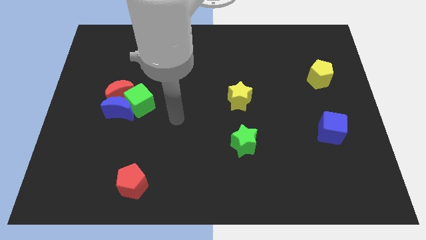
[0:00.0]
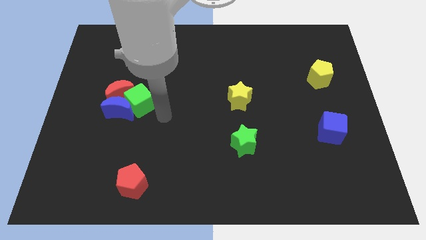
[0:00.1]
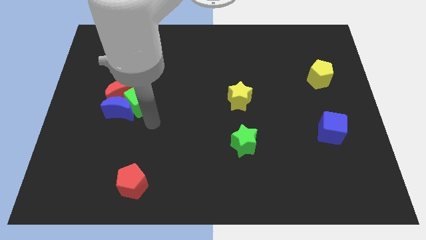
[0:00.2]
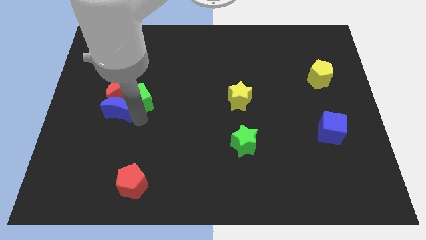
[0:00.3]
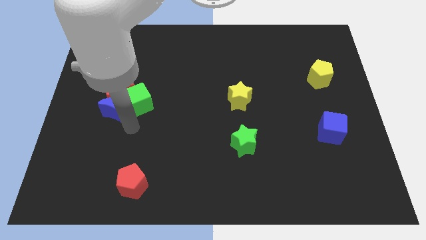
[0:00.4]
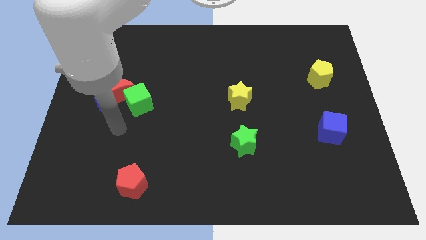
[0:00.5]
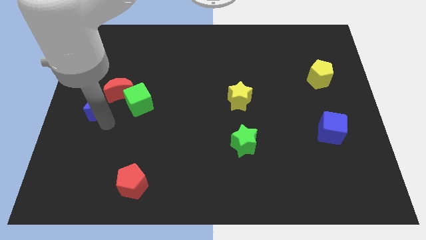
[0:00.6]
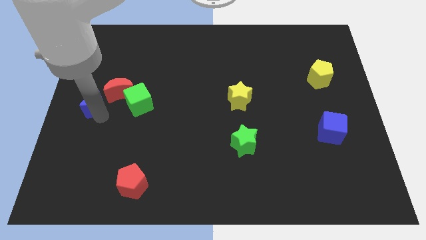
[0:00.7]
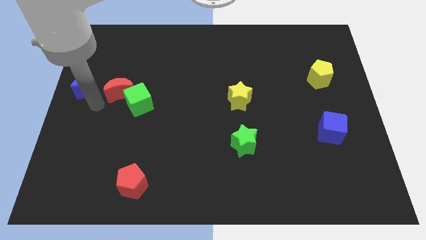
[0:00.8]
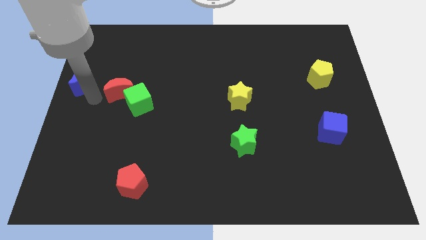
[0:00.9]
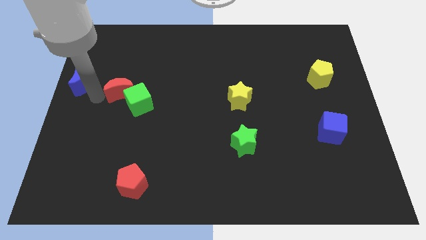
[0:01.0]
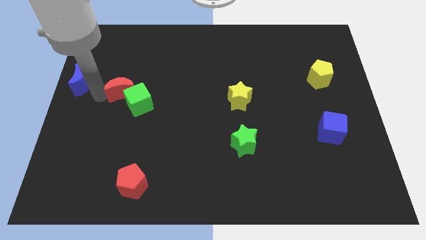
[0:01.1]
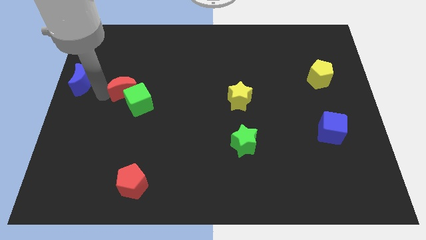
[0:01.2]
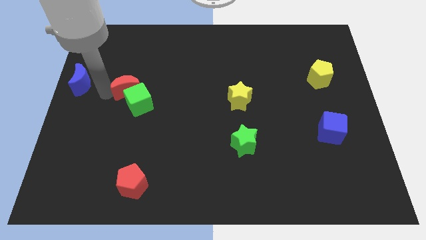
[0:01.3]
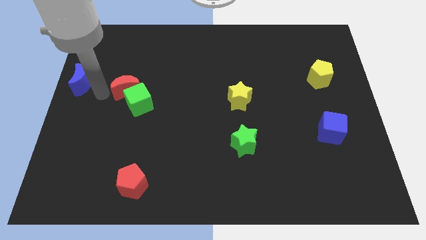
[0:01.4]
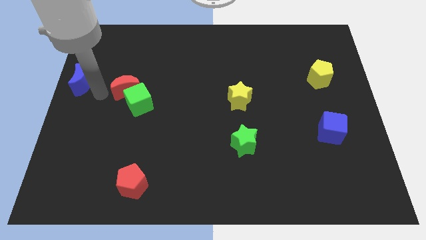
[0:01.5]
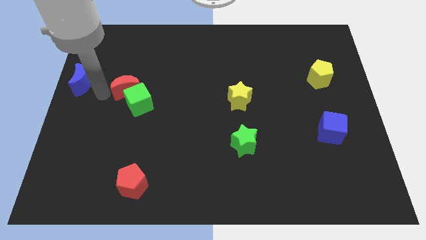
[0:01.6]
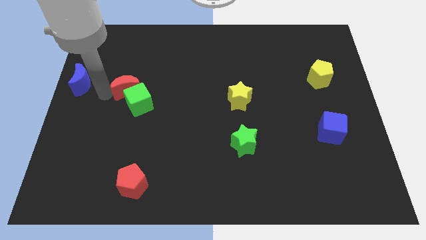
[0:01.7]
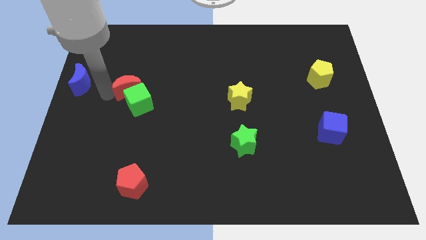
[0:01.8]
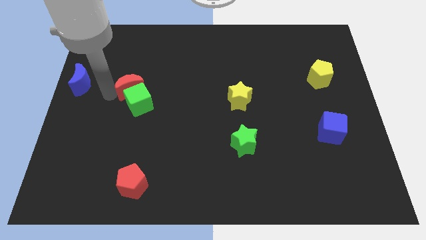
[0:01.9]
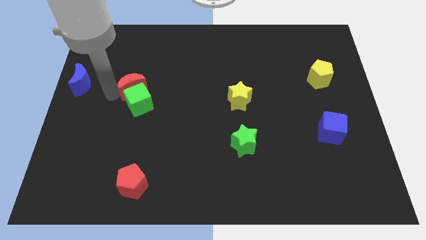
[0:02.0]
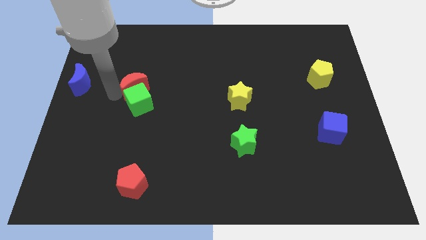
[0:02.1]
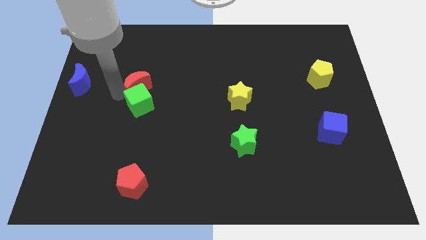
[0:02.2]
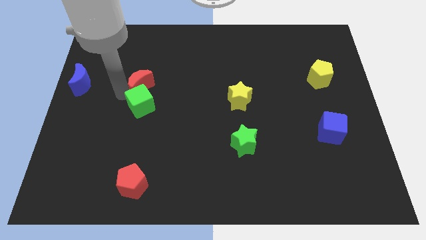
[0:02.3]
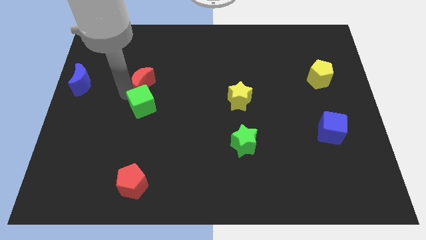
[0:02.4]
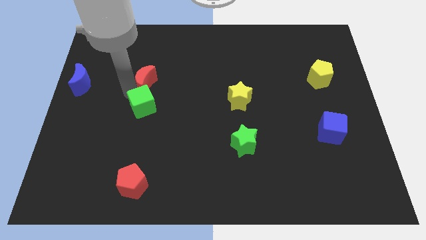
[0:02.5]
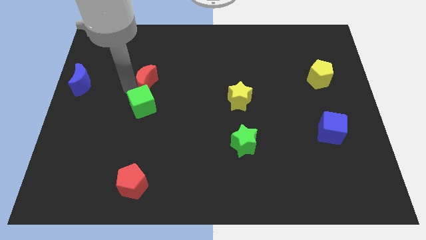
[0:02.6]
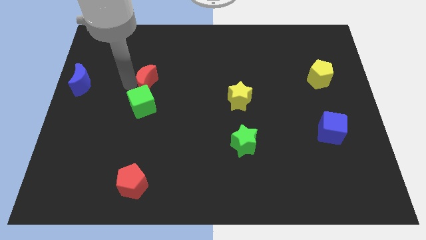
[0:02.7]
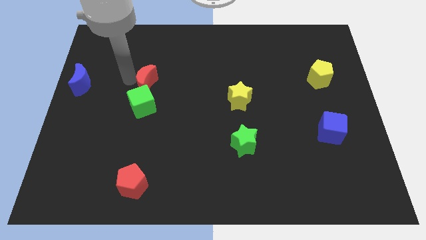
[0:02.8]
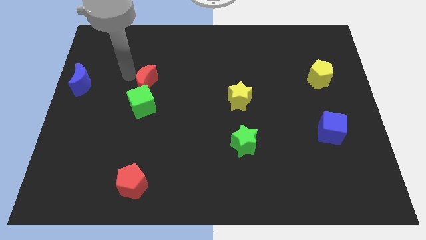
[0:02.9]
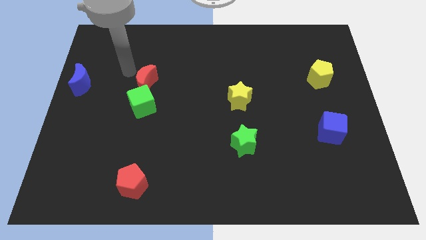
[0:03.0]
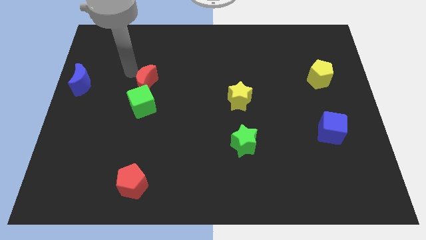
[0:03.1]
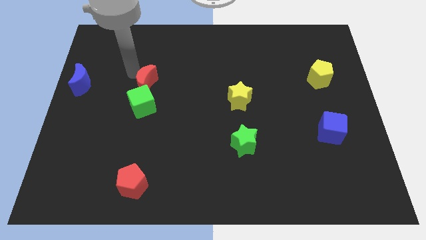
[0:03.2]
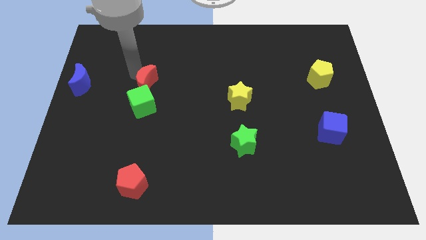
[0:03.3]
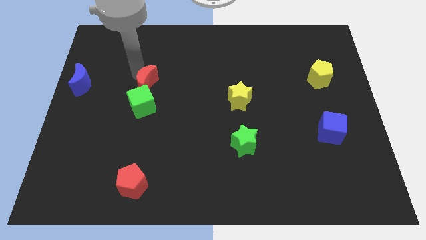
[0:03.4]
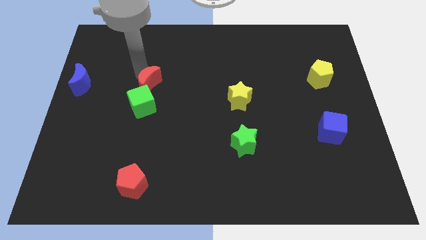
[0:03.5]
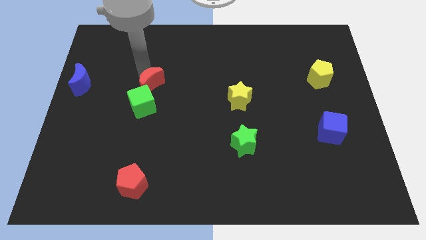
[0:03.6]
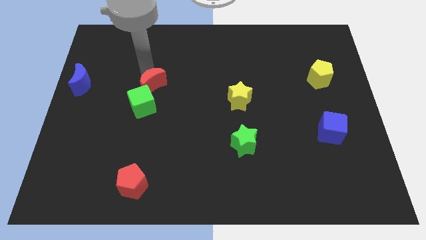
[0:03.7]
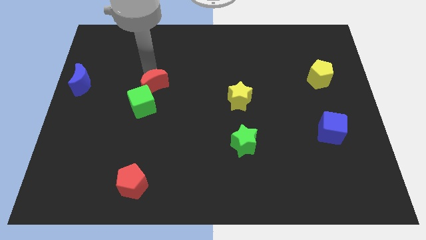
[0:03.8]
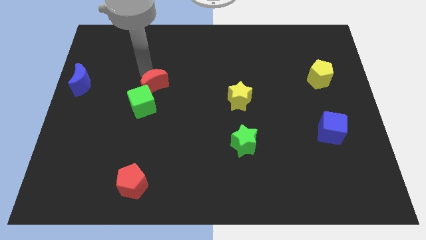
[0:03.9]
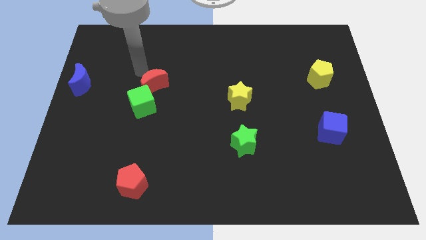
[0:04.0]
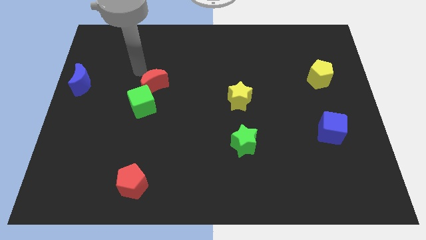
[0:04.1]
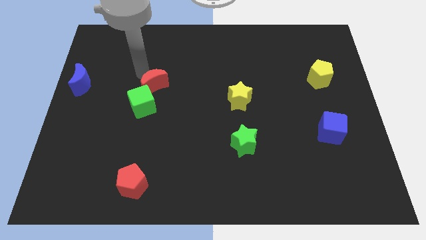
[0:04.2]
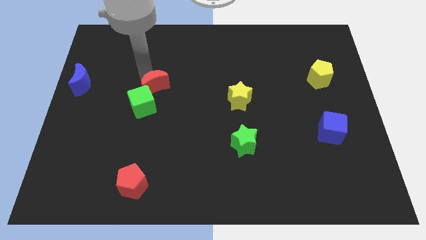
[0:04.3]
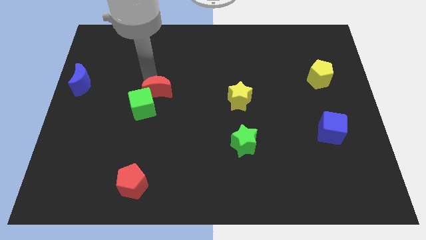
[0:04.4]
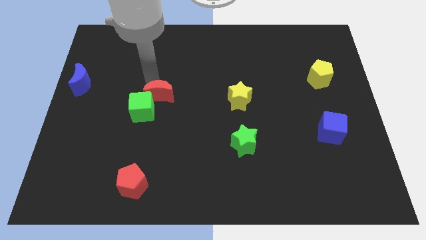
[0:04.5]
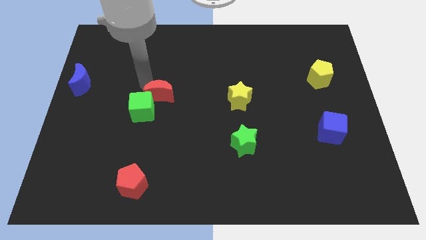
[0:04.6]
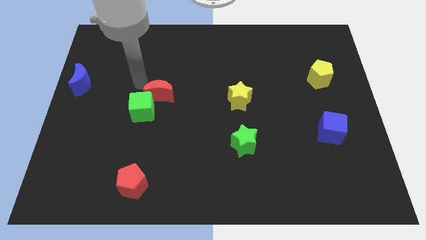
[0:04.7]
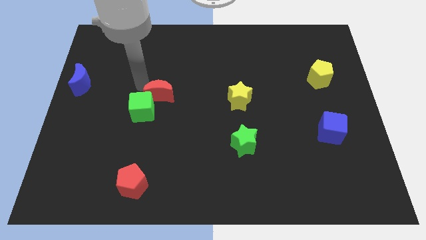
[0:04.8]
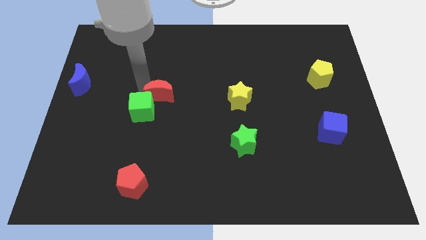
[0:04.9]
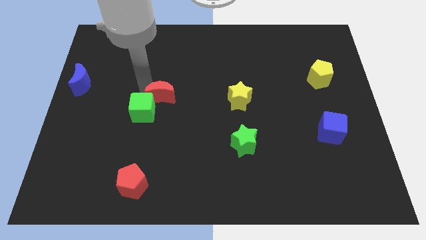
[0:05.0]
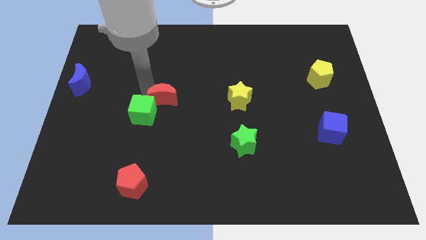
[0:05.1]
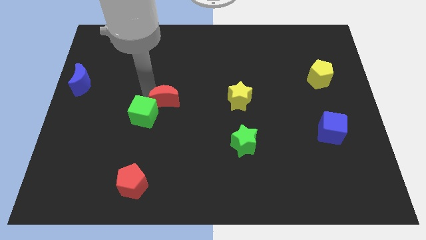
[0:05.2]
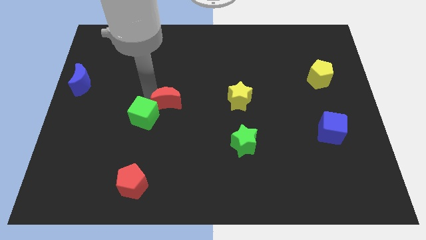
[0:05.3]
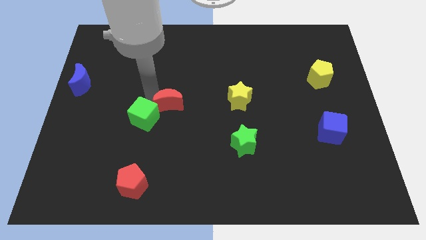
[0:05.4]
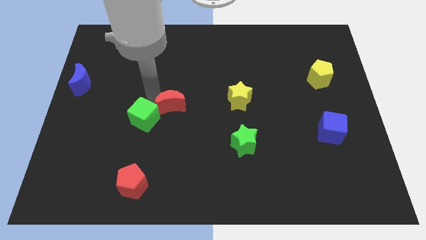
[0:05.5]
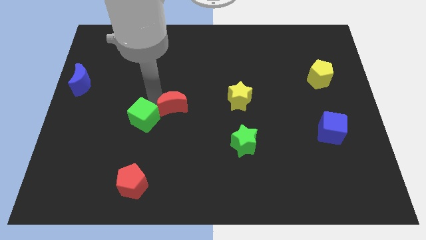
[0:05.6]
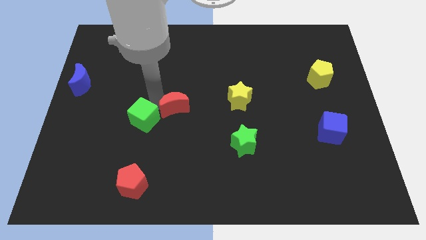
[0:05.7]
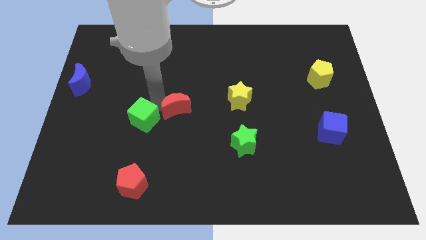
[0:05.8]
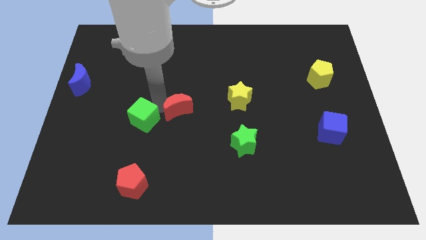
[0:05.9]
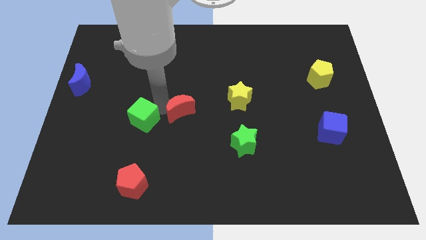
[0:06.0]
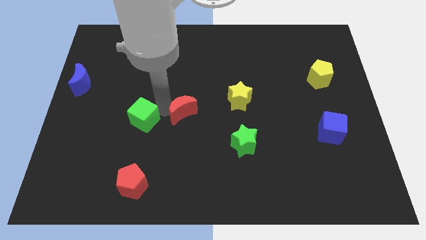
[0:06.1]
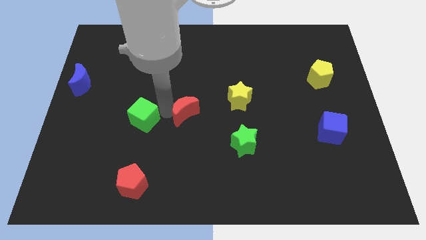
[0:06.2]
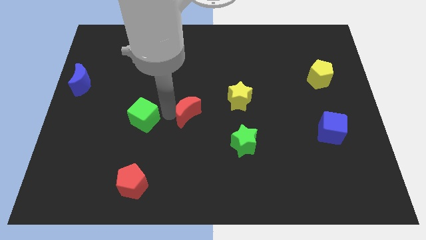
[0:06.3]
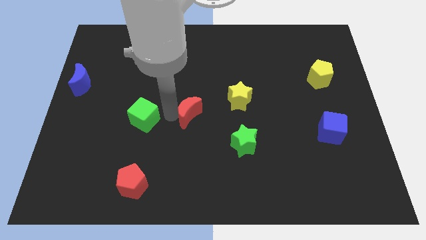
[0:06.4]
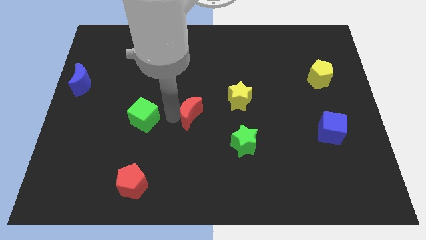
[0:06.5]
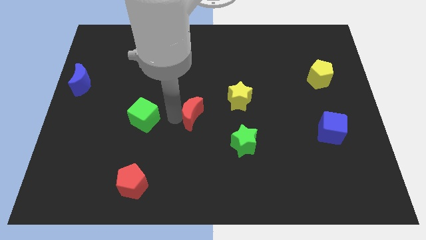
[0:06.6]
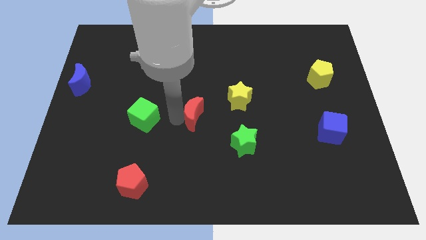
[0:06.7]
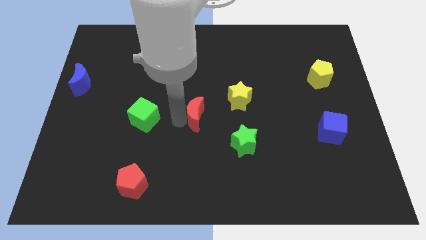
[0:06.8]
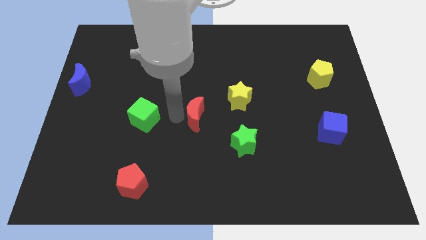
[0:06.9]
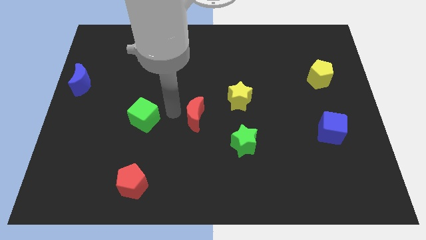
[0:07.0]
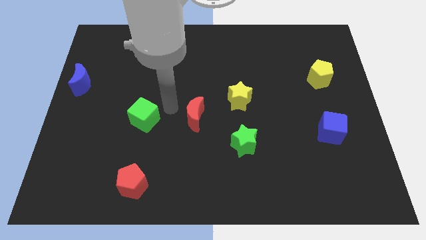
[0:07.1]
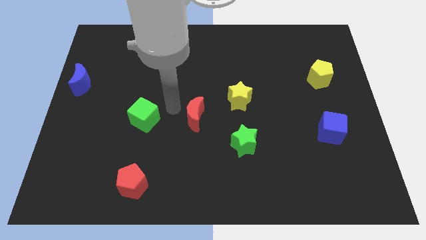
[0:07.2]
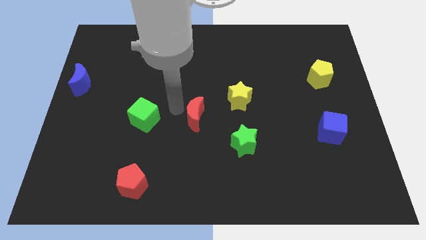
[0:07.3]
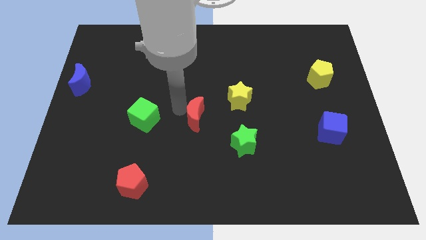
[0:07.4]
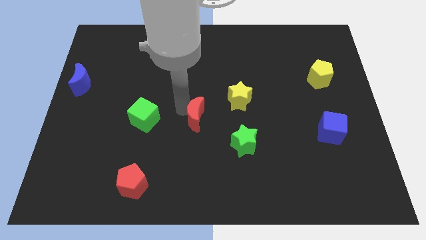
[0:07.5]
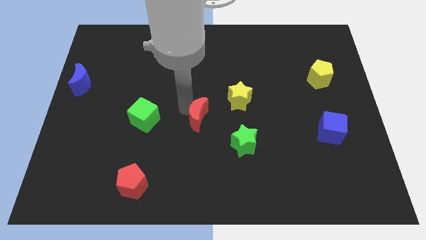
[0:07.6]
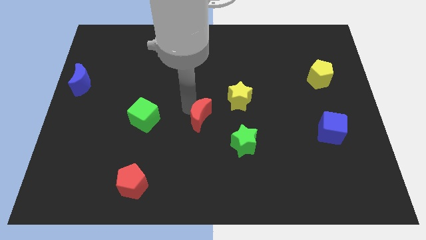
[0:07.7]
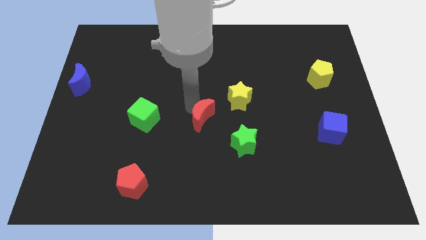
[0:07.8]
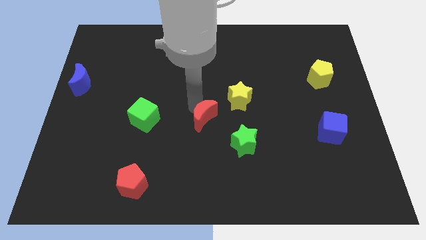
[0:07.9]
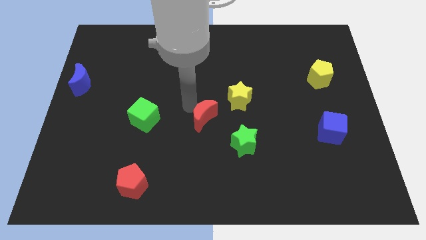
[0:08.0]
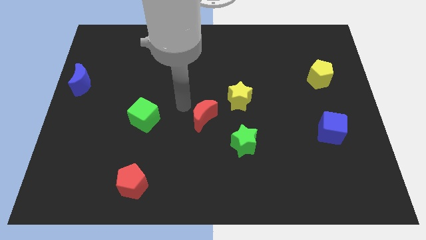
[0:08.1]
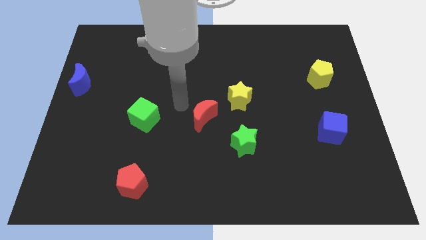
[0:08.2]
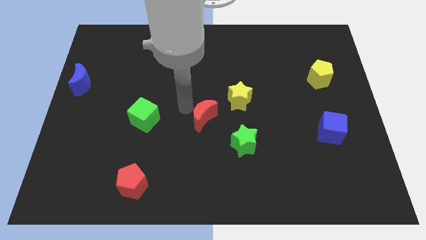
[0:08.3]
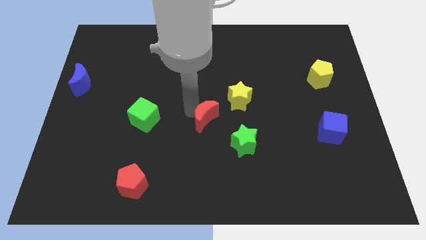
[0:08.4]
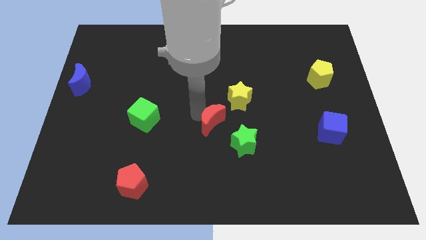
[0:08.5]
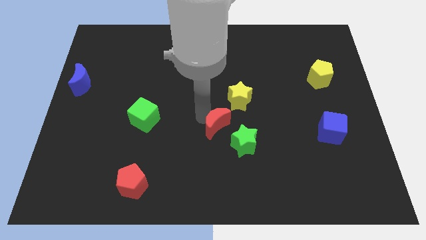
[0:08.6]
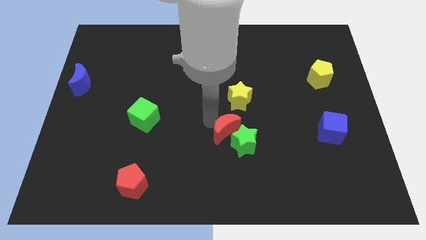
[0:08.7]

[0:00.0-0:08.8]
put the red moon towards the green star
